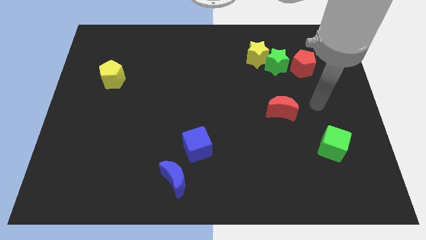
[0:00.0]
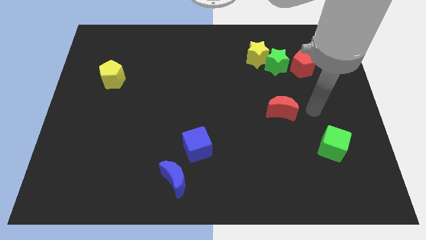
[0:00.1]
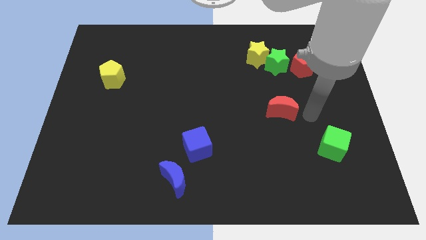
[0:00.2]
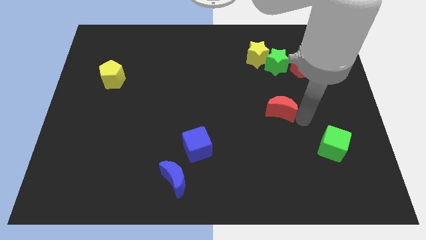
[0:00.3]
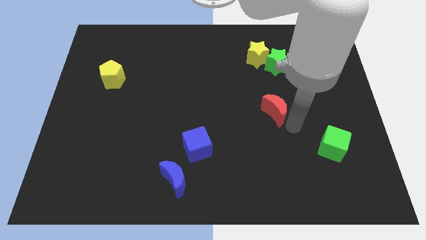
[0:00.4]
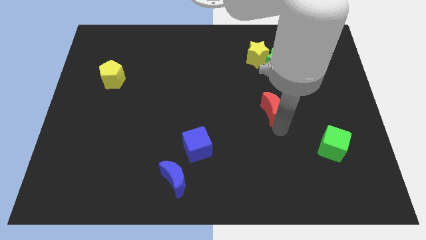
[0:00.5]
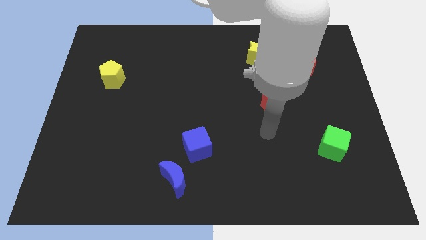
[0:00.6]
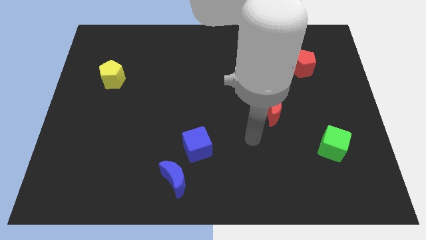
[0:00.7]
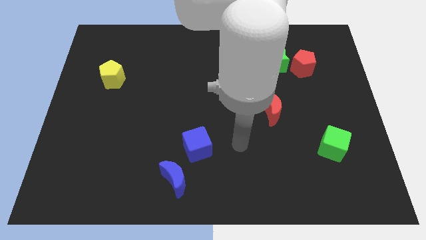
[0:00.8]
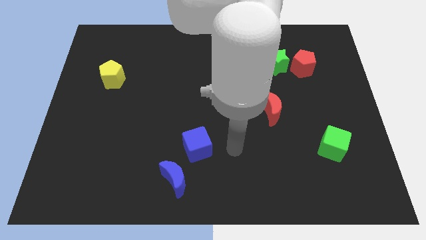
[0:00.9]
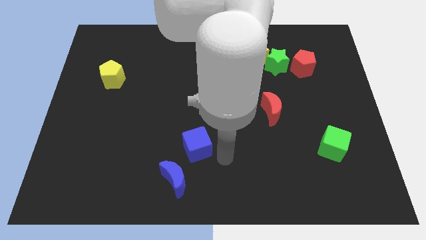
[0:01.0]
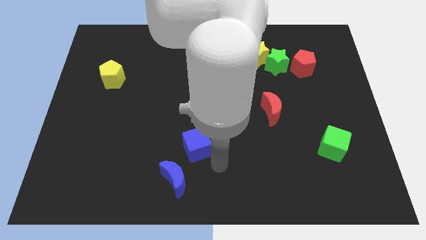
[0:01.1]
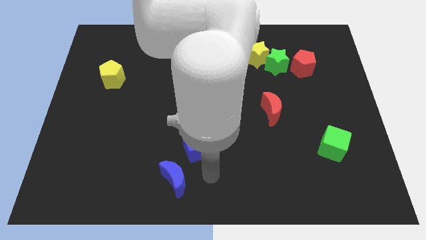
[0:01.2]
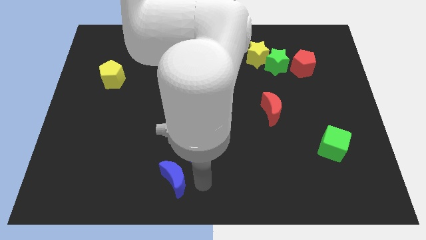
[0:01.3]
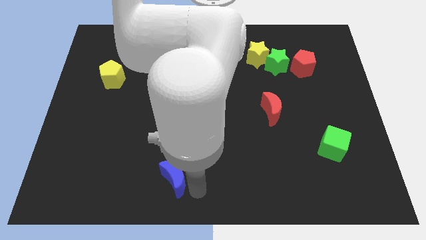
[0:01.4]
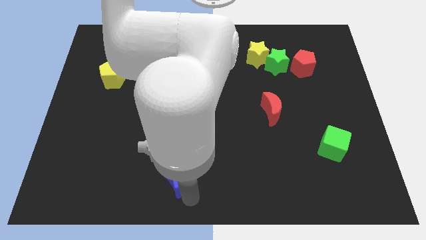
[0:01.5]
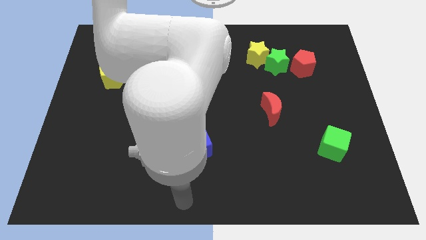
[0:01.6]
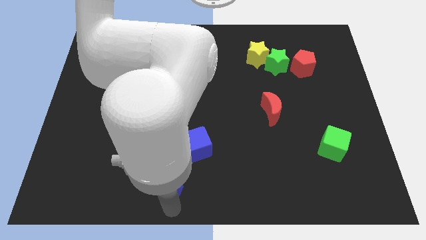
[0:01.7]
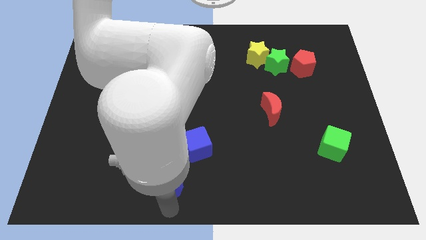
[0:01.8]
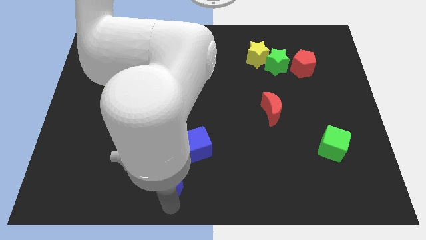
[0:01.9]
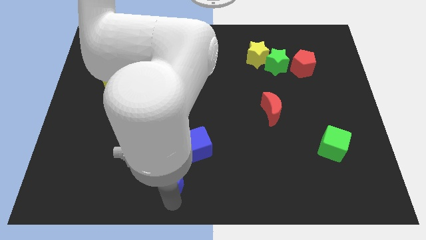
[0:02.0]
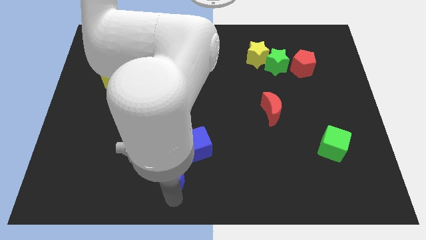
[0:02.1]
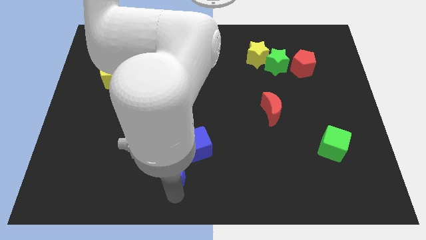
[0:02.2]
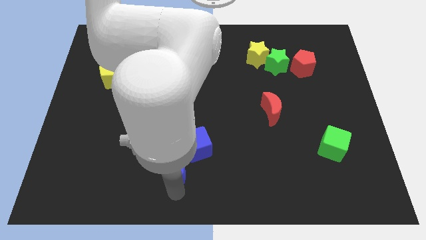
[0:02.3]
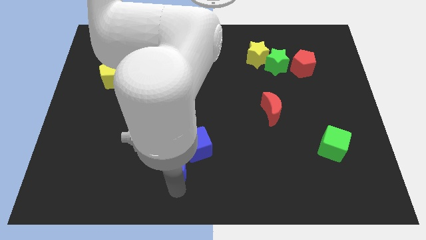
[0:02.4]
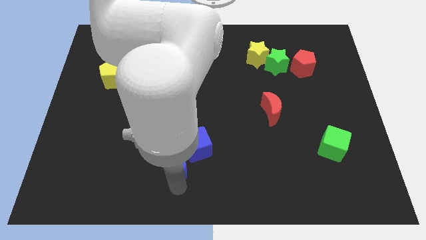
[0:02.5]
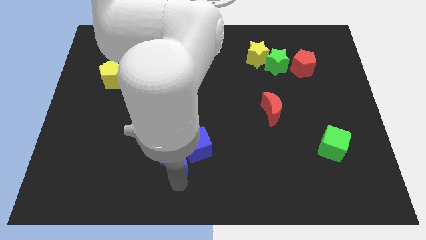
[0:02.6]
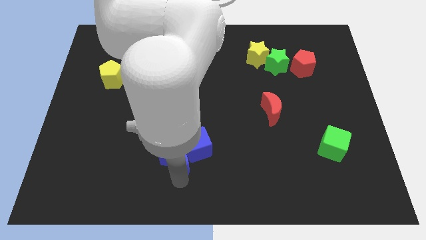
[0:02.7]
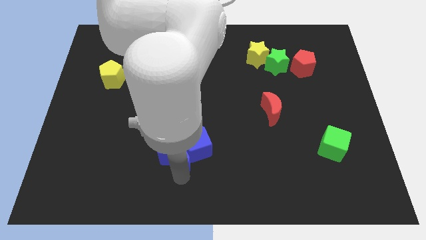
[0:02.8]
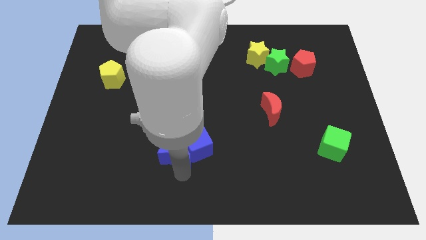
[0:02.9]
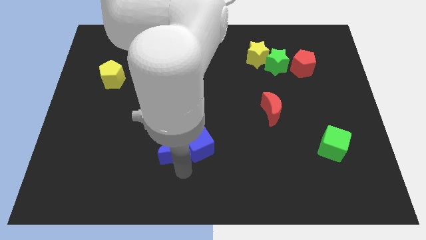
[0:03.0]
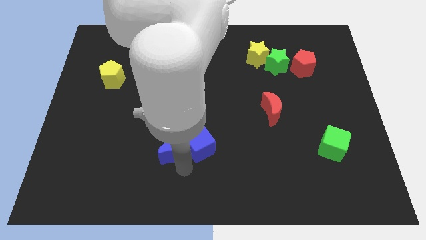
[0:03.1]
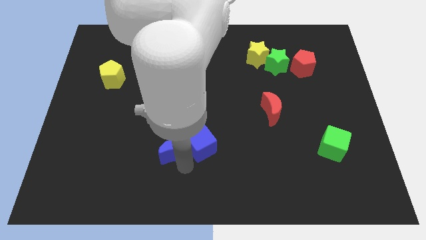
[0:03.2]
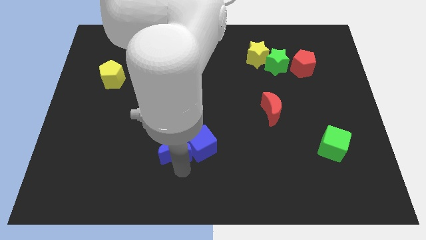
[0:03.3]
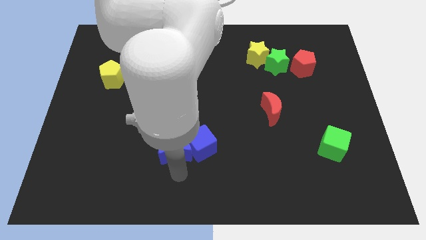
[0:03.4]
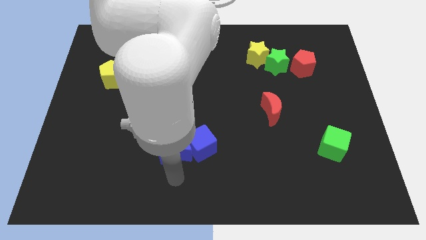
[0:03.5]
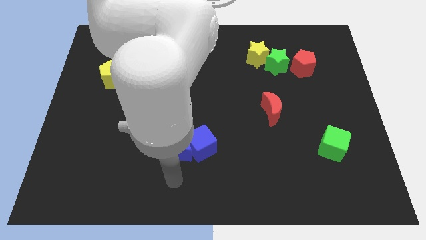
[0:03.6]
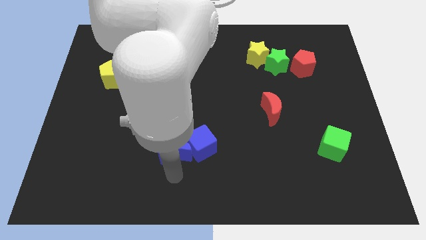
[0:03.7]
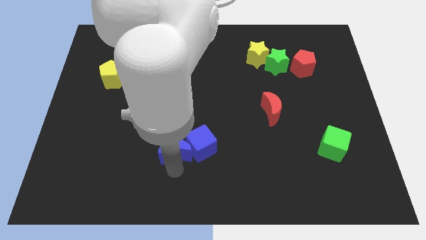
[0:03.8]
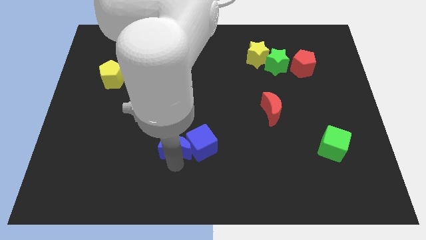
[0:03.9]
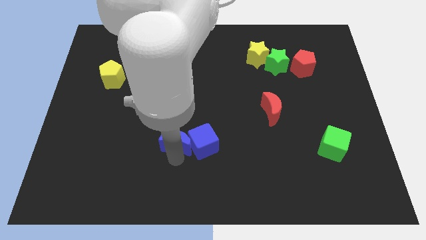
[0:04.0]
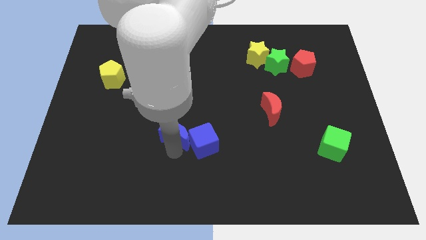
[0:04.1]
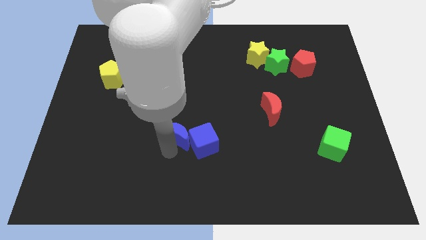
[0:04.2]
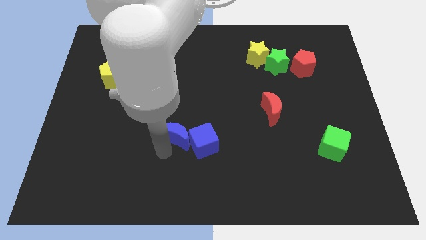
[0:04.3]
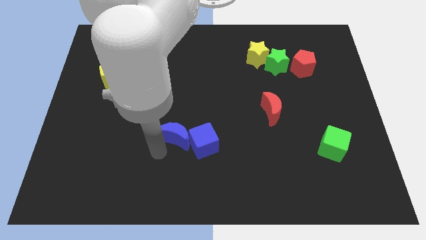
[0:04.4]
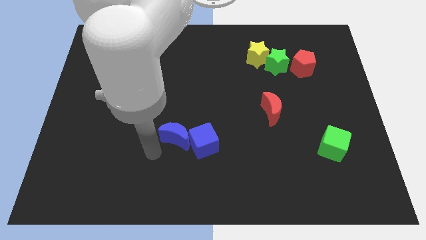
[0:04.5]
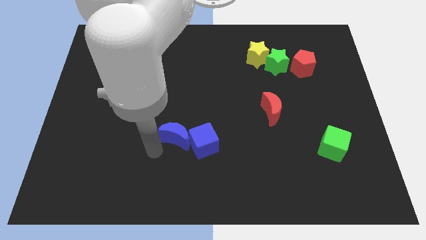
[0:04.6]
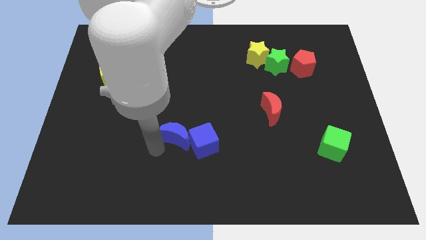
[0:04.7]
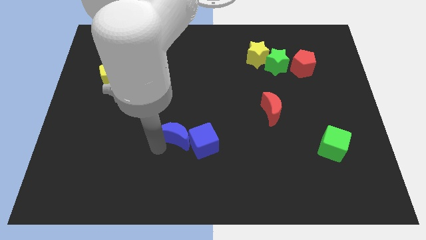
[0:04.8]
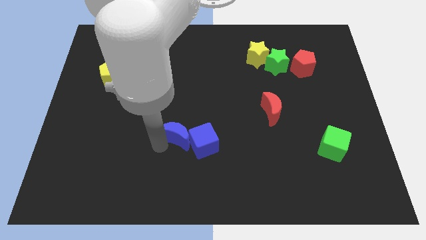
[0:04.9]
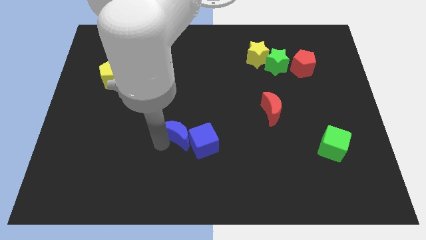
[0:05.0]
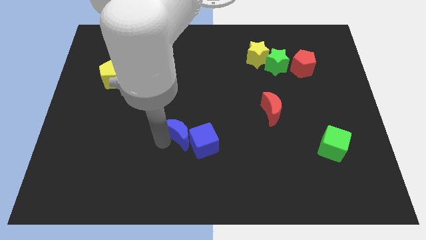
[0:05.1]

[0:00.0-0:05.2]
put the blue moon to the center

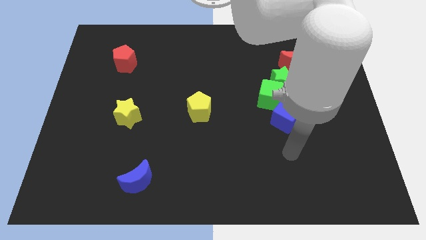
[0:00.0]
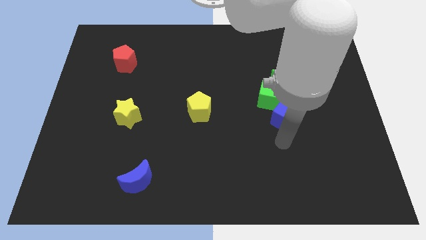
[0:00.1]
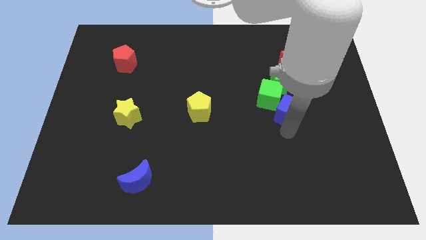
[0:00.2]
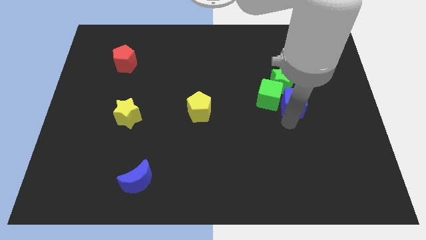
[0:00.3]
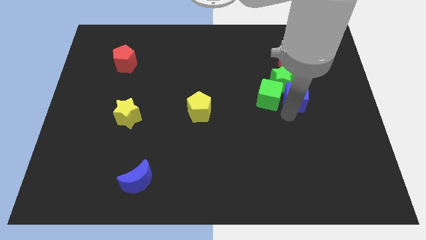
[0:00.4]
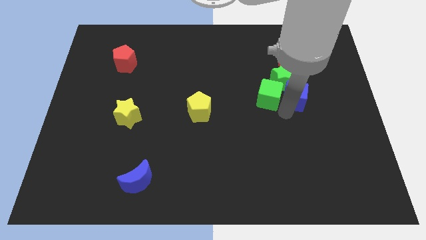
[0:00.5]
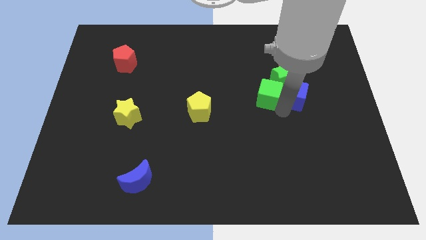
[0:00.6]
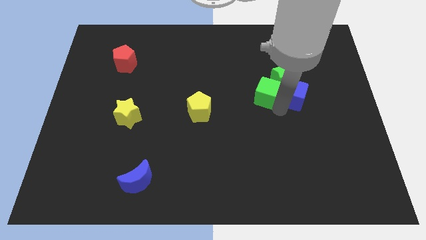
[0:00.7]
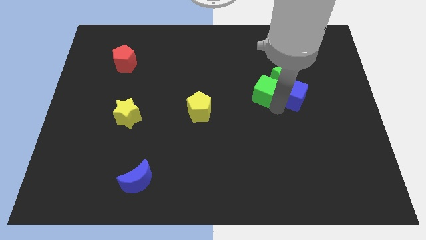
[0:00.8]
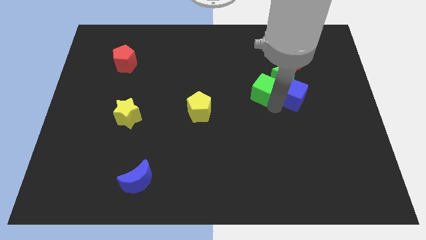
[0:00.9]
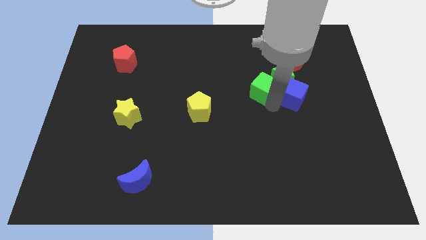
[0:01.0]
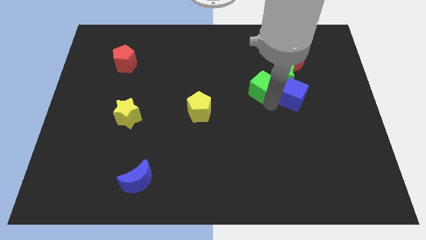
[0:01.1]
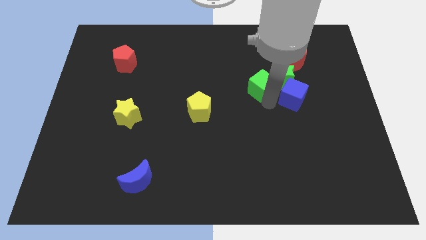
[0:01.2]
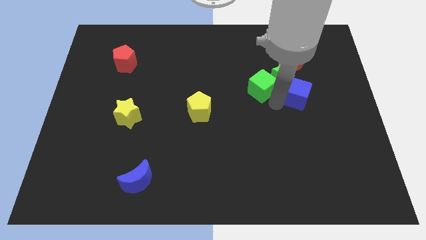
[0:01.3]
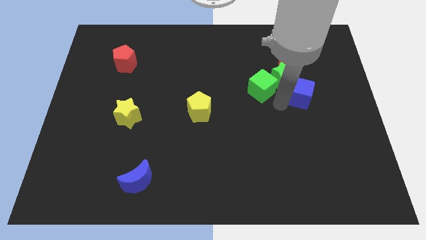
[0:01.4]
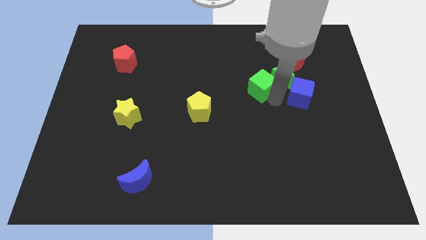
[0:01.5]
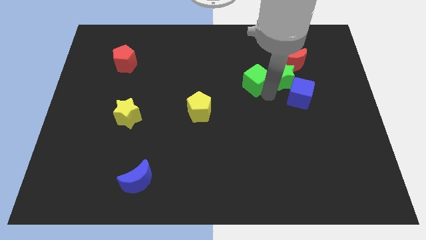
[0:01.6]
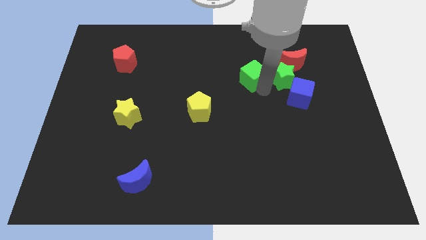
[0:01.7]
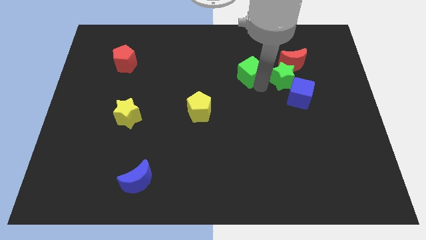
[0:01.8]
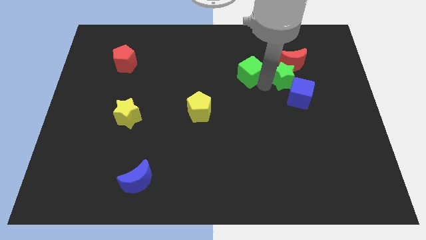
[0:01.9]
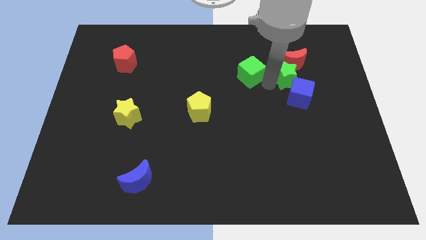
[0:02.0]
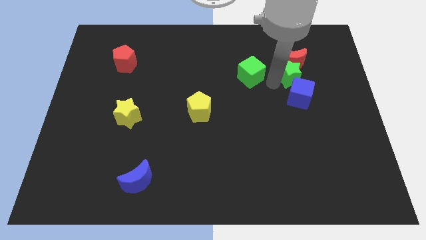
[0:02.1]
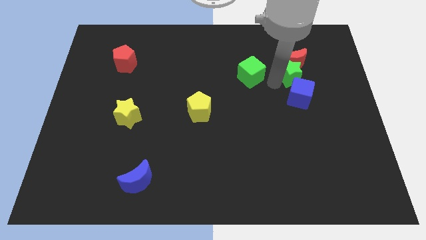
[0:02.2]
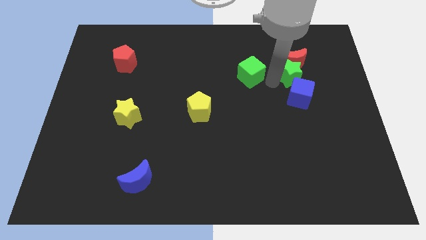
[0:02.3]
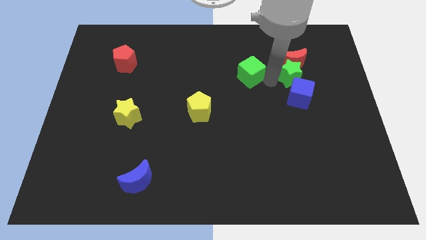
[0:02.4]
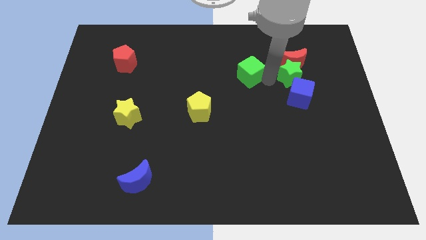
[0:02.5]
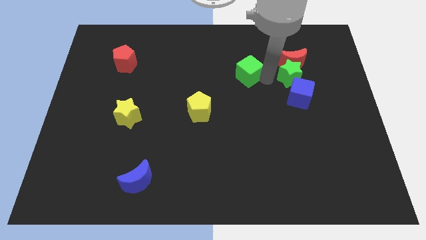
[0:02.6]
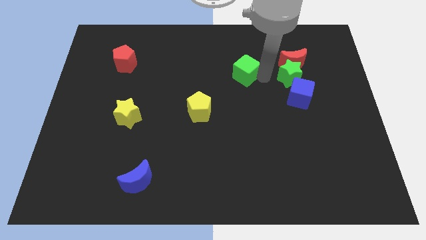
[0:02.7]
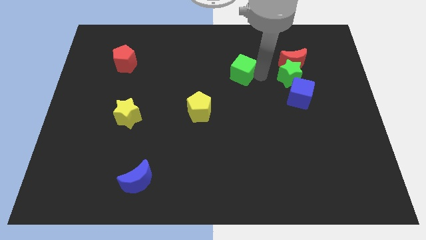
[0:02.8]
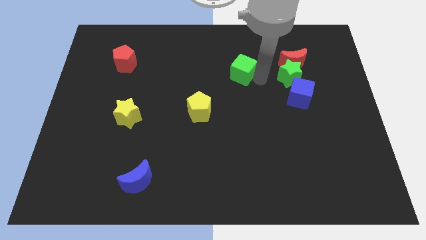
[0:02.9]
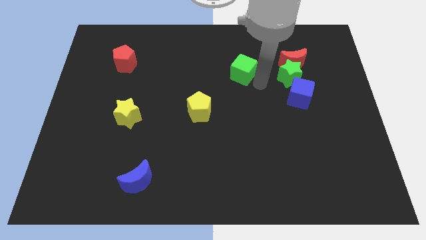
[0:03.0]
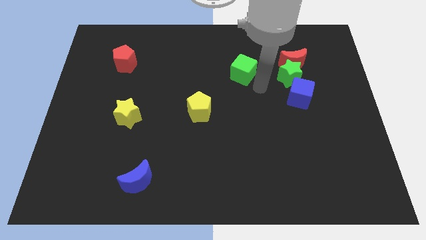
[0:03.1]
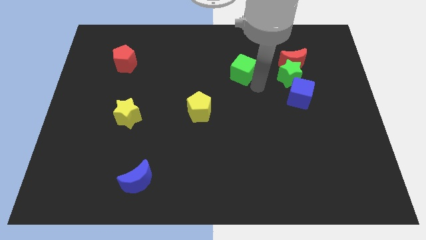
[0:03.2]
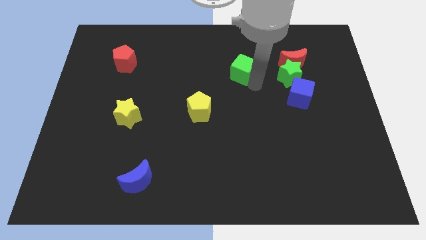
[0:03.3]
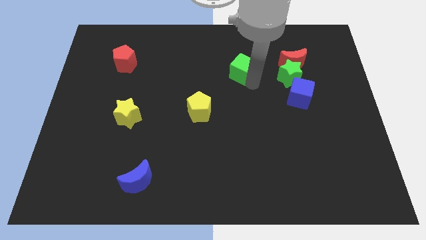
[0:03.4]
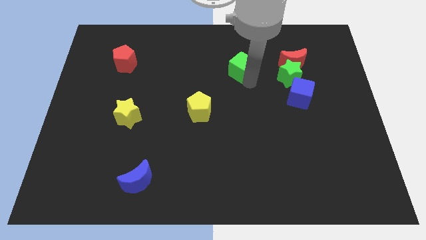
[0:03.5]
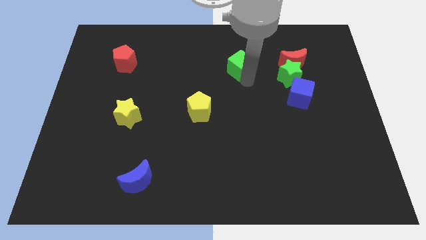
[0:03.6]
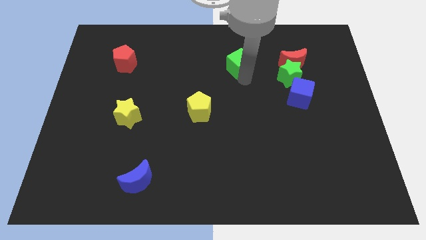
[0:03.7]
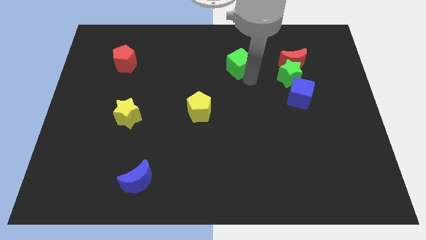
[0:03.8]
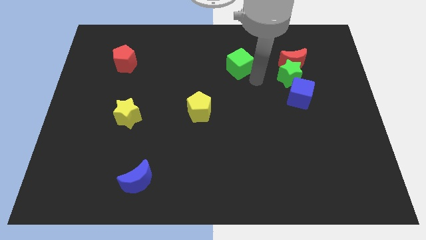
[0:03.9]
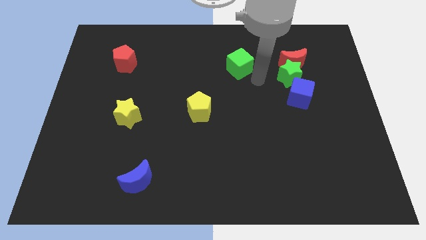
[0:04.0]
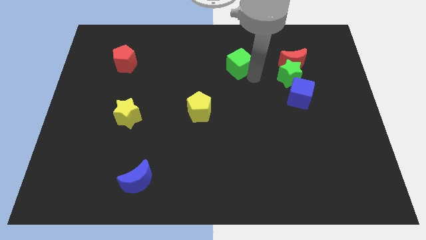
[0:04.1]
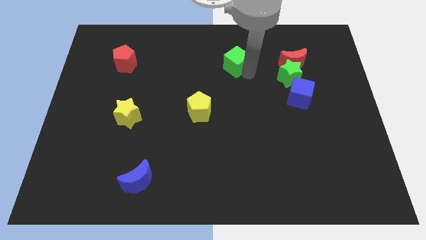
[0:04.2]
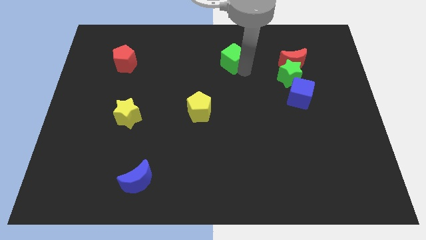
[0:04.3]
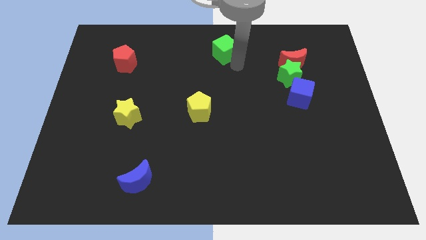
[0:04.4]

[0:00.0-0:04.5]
move the green cube to the top side
